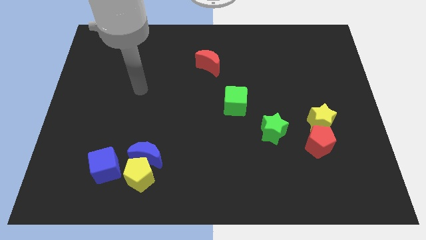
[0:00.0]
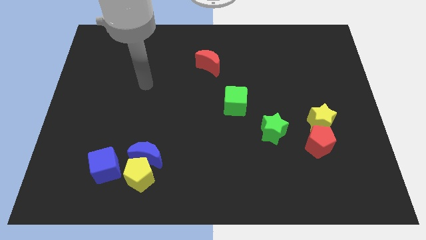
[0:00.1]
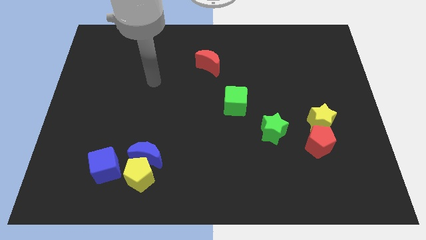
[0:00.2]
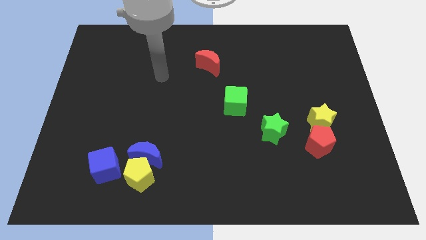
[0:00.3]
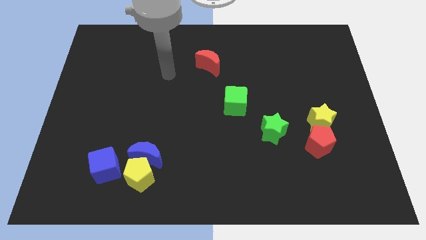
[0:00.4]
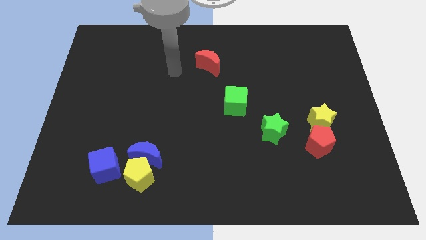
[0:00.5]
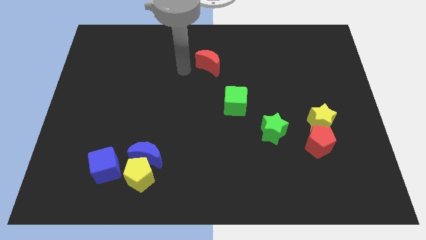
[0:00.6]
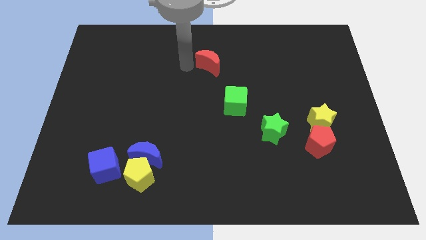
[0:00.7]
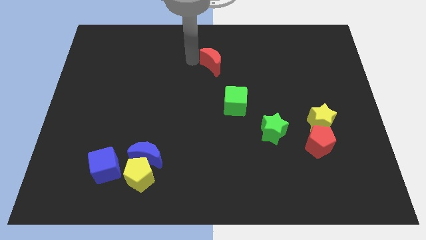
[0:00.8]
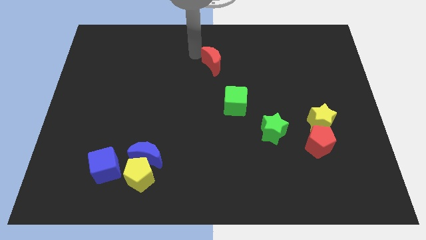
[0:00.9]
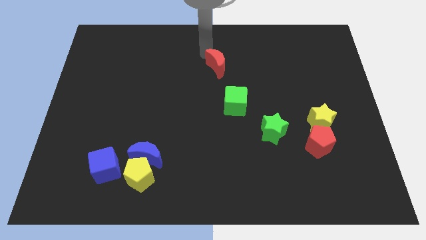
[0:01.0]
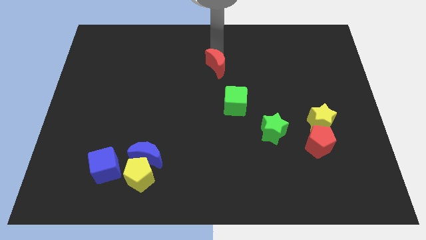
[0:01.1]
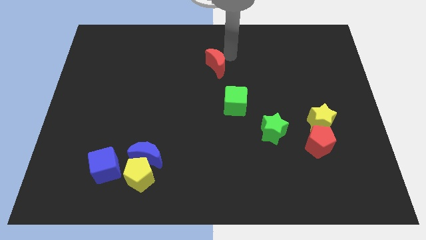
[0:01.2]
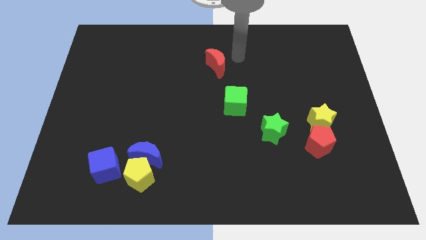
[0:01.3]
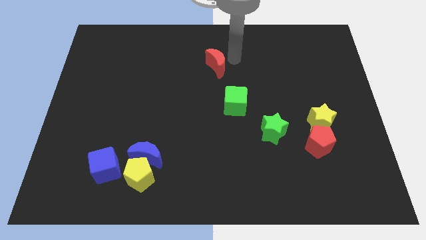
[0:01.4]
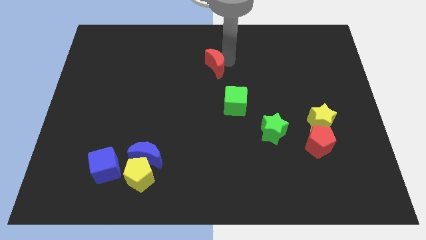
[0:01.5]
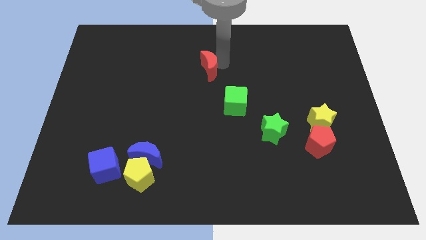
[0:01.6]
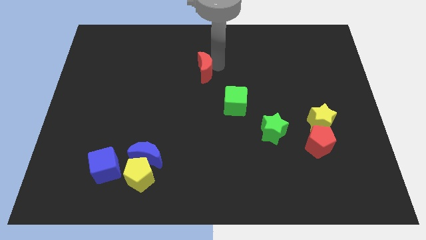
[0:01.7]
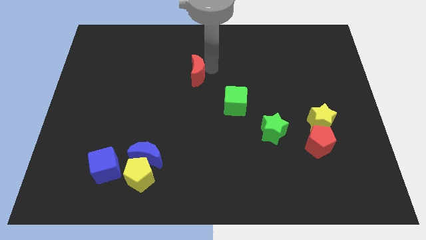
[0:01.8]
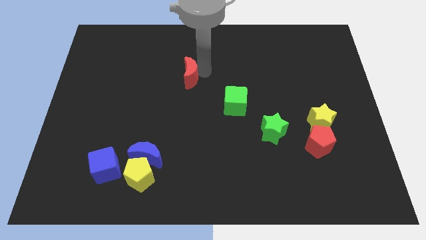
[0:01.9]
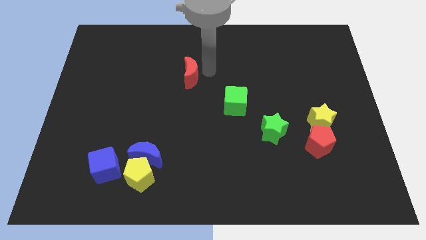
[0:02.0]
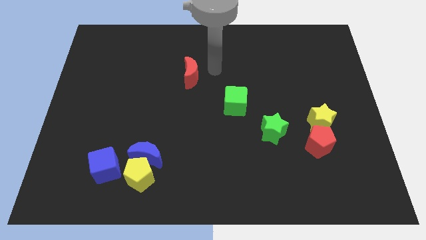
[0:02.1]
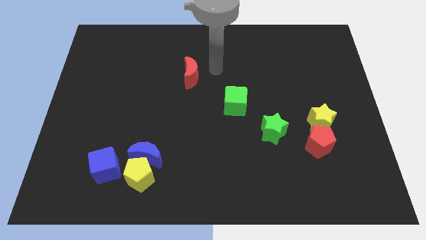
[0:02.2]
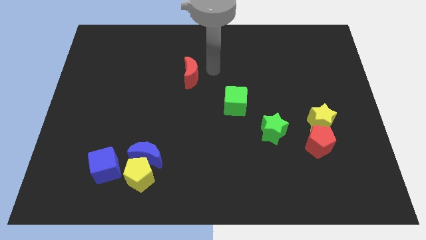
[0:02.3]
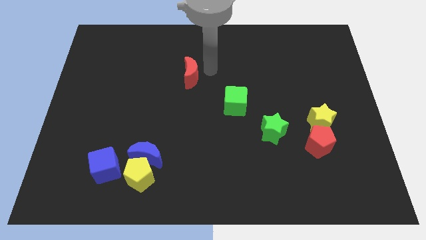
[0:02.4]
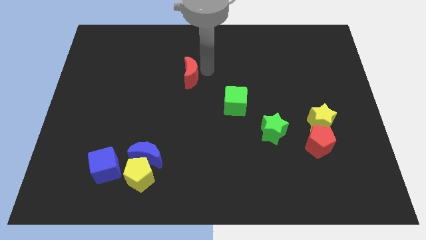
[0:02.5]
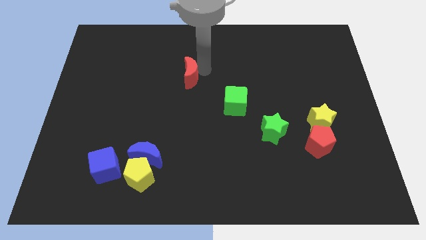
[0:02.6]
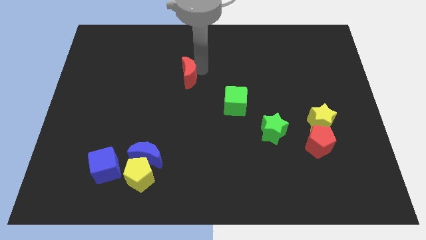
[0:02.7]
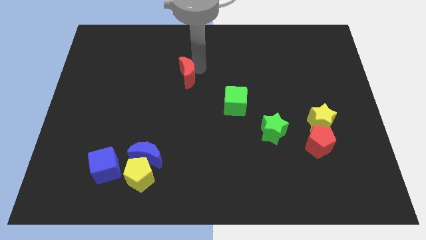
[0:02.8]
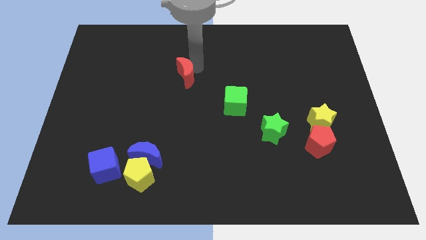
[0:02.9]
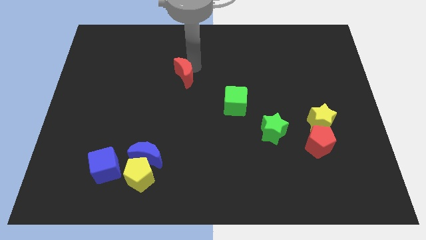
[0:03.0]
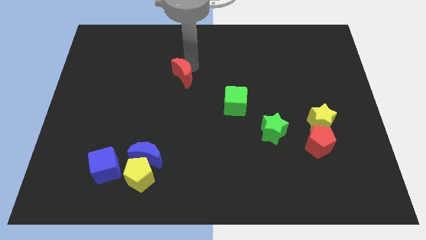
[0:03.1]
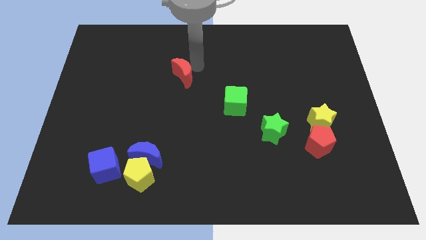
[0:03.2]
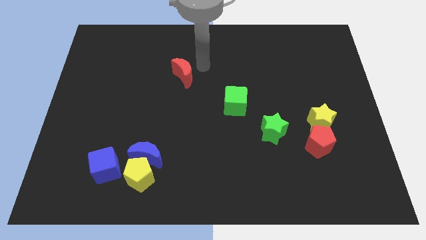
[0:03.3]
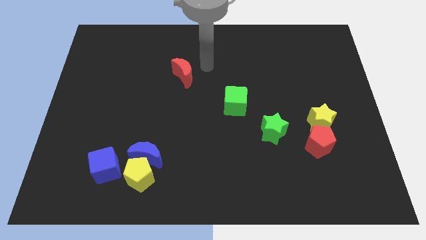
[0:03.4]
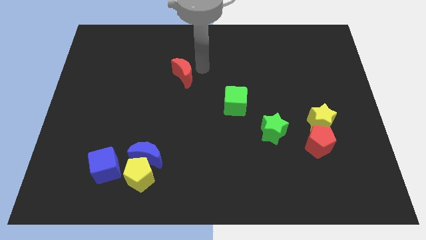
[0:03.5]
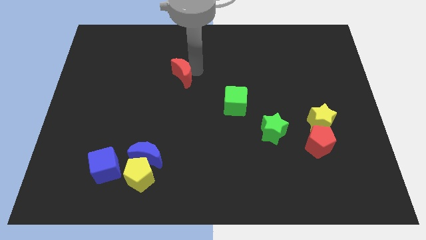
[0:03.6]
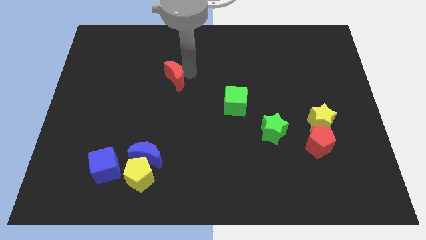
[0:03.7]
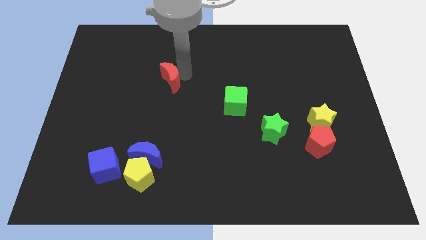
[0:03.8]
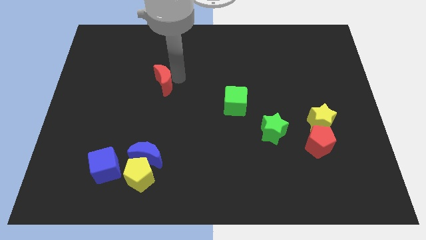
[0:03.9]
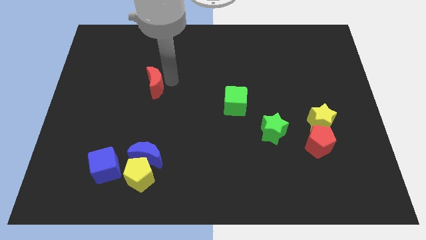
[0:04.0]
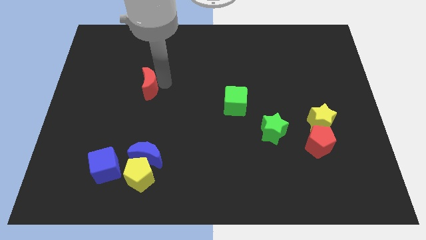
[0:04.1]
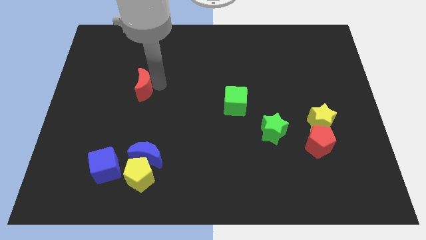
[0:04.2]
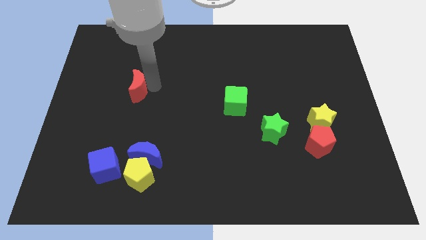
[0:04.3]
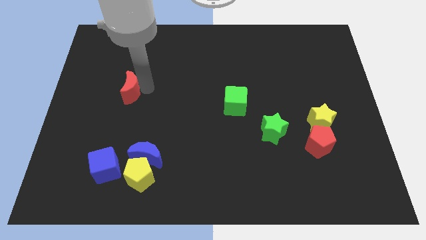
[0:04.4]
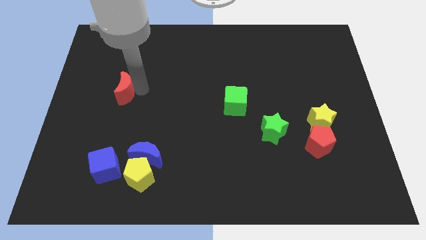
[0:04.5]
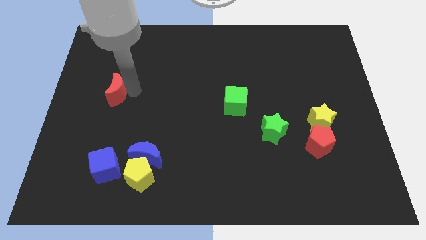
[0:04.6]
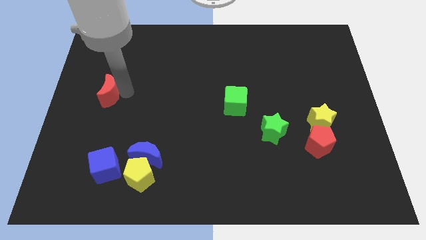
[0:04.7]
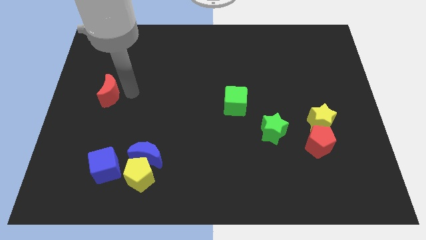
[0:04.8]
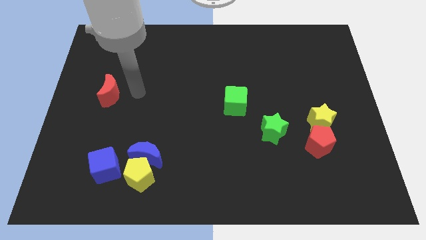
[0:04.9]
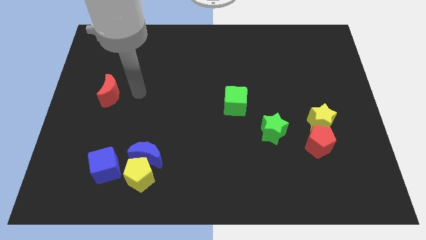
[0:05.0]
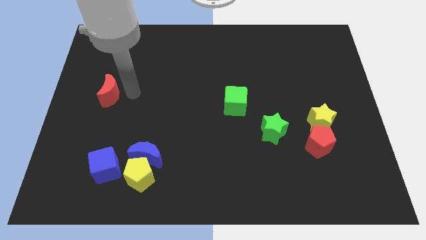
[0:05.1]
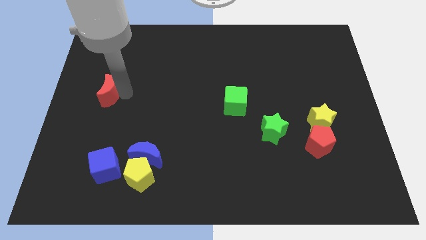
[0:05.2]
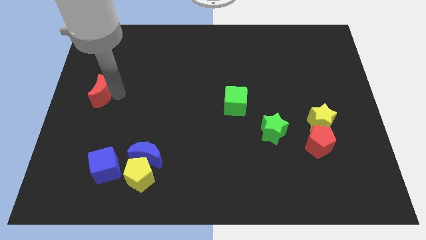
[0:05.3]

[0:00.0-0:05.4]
move the red moon to the left side

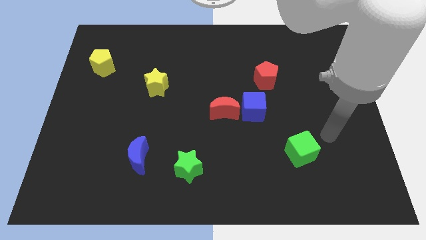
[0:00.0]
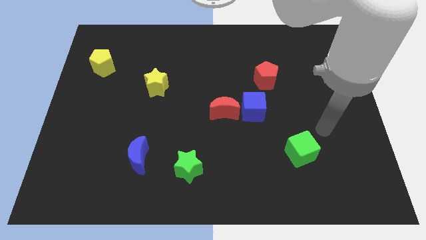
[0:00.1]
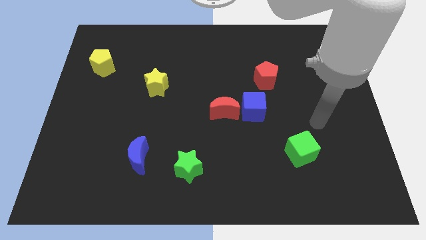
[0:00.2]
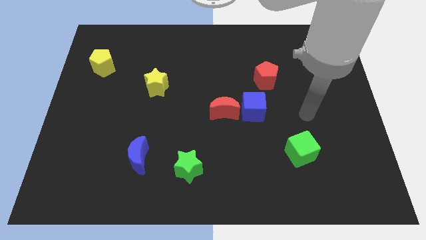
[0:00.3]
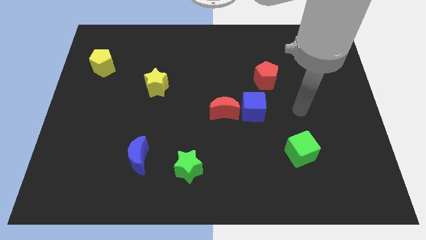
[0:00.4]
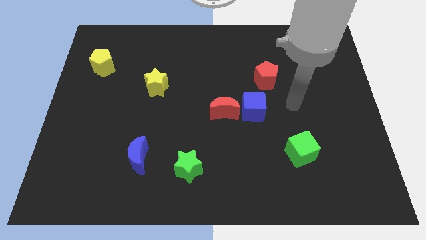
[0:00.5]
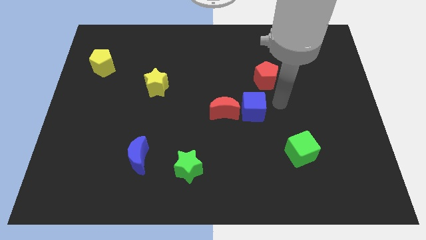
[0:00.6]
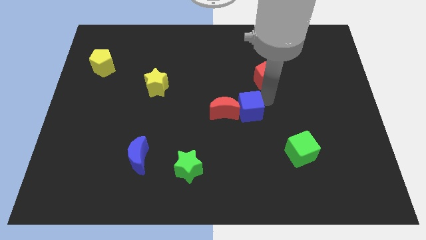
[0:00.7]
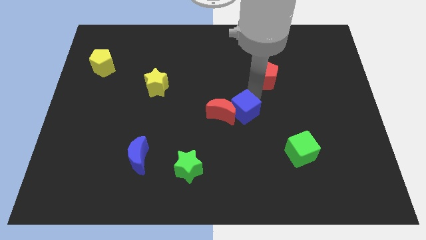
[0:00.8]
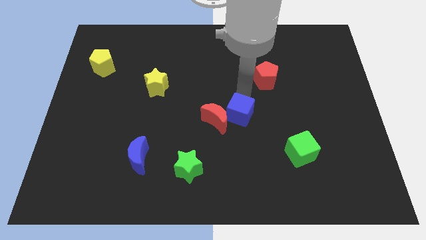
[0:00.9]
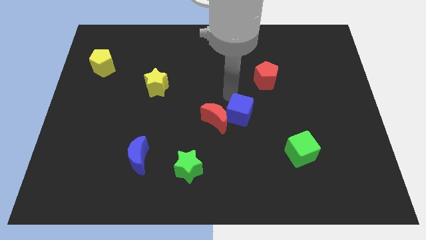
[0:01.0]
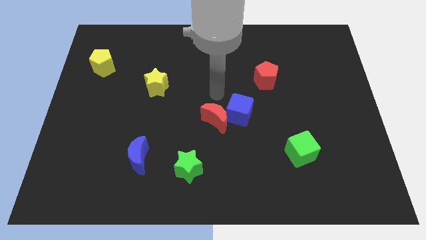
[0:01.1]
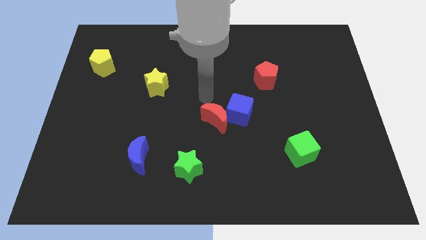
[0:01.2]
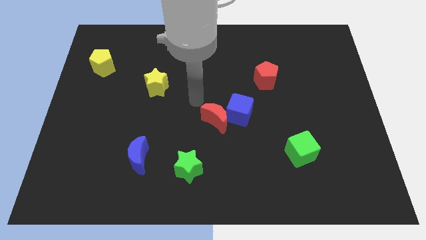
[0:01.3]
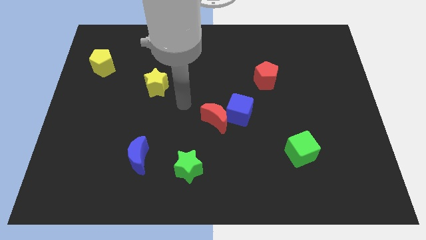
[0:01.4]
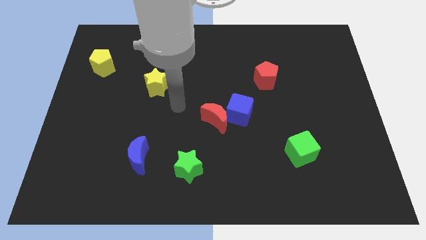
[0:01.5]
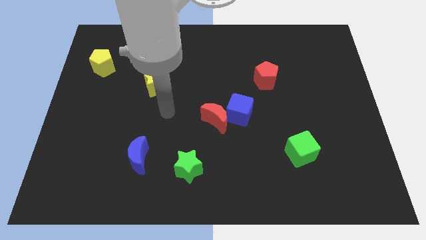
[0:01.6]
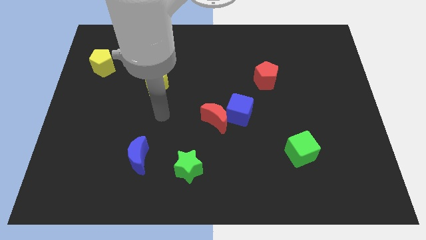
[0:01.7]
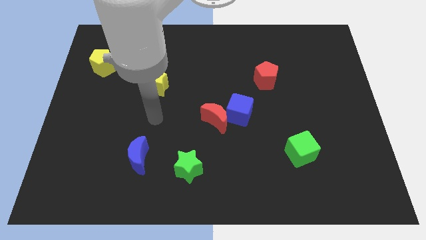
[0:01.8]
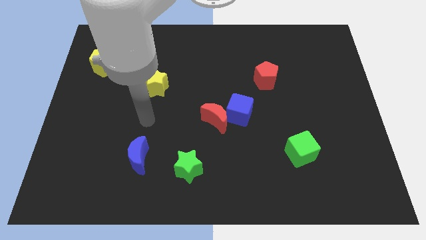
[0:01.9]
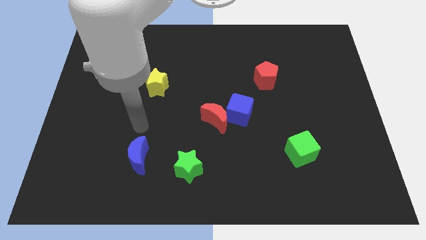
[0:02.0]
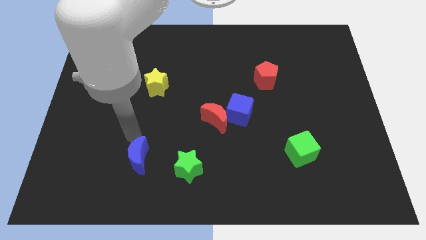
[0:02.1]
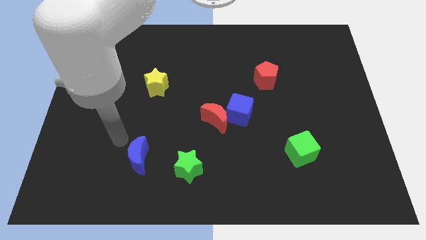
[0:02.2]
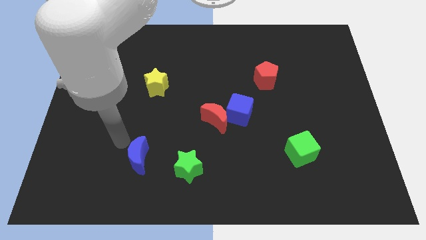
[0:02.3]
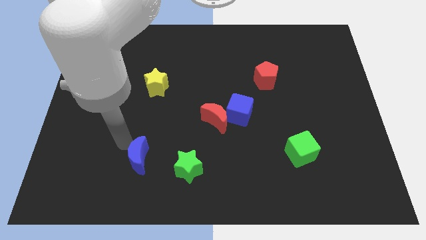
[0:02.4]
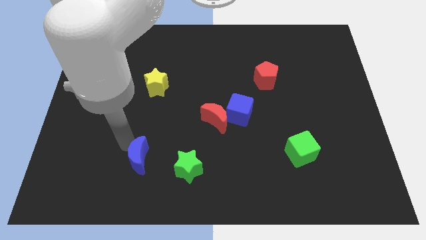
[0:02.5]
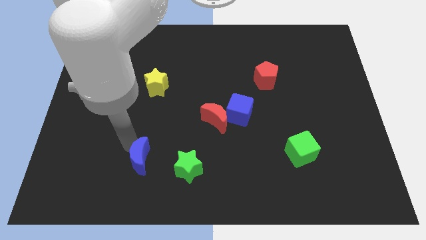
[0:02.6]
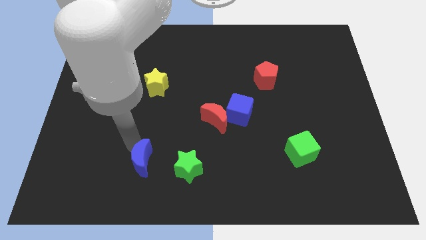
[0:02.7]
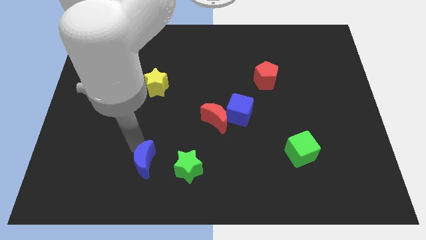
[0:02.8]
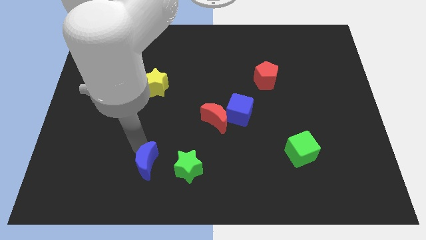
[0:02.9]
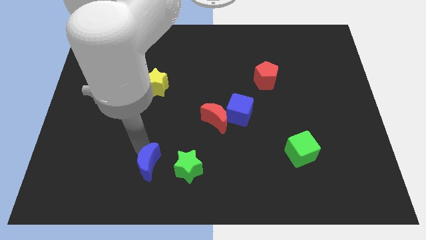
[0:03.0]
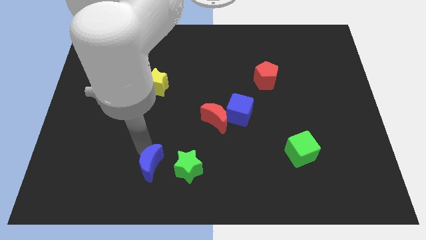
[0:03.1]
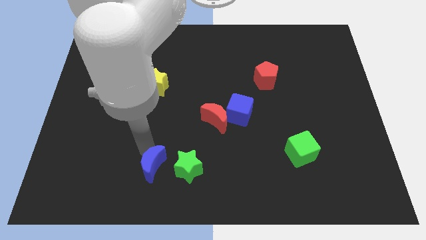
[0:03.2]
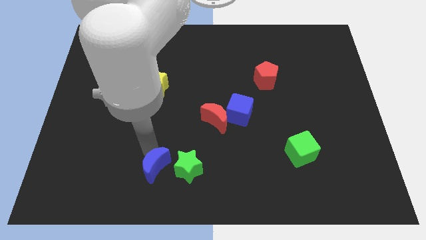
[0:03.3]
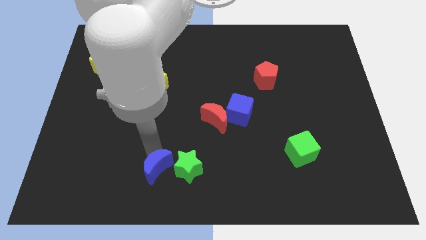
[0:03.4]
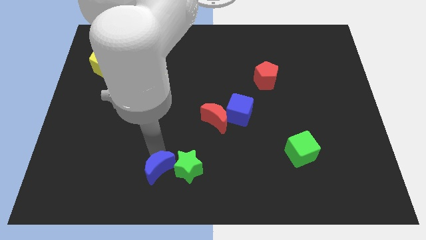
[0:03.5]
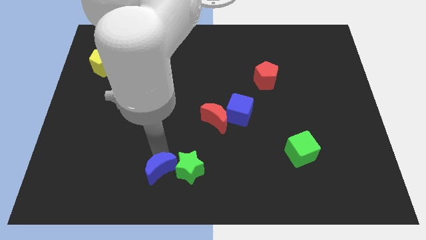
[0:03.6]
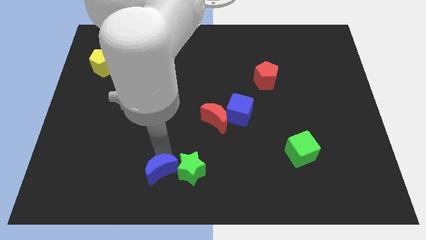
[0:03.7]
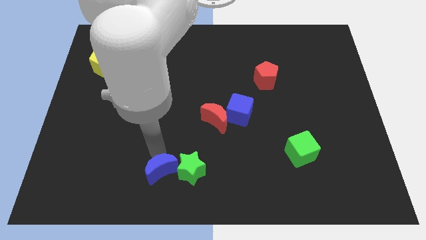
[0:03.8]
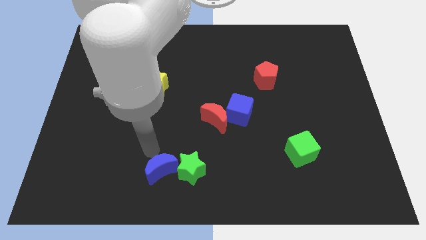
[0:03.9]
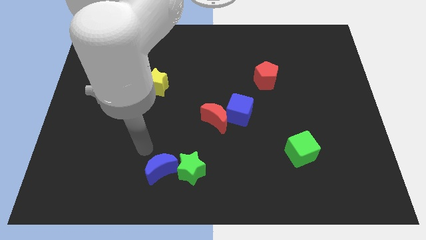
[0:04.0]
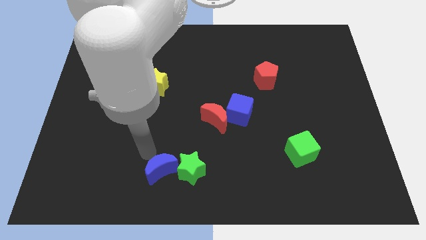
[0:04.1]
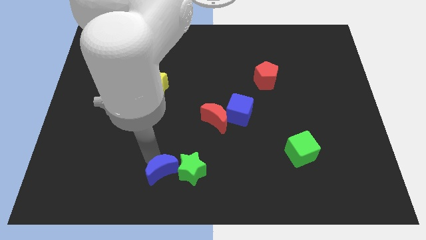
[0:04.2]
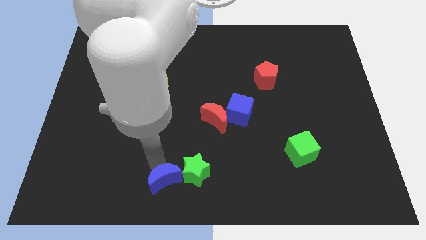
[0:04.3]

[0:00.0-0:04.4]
push the blue moon to the bottom side
